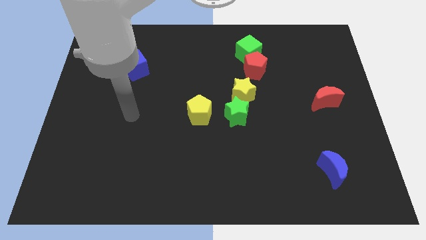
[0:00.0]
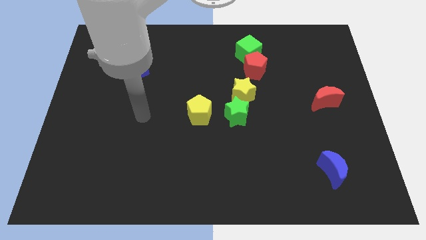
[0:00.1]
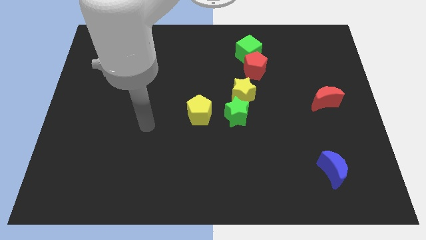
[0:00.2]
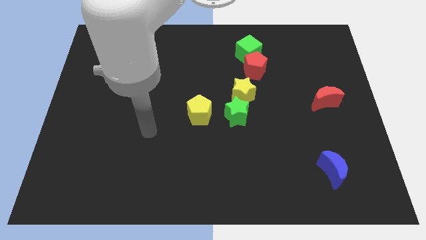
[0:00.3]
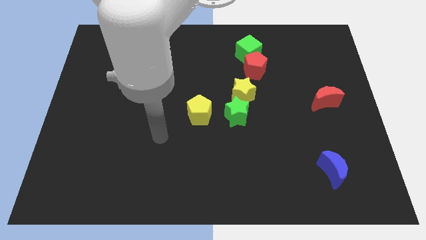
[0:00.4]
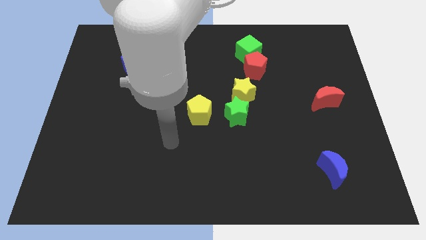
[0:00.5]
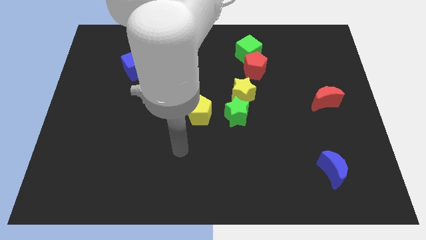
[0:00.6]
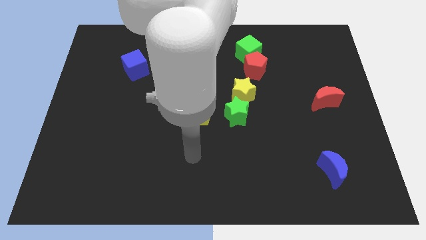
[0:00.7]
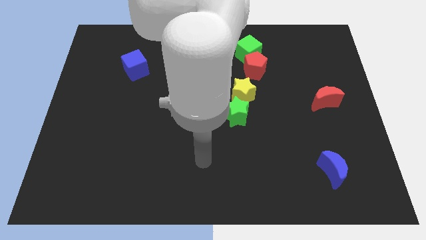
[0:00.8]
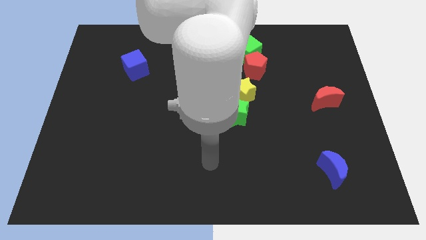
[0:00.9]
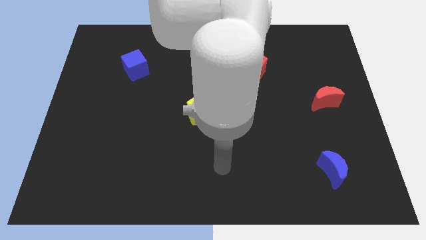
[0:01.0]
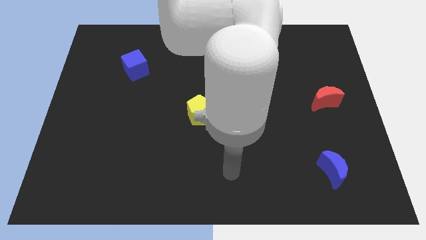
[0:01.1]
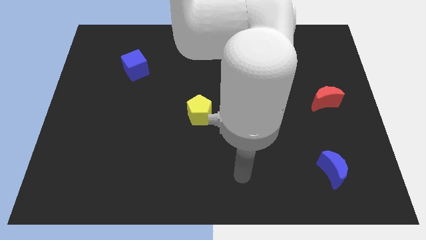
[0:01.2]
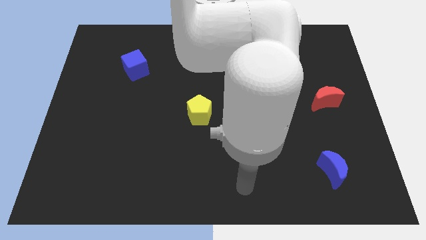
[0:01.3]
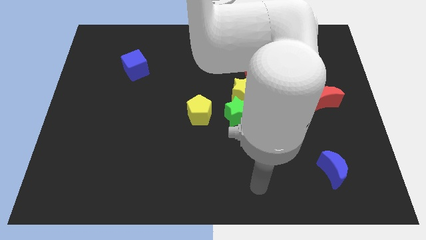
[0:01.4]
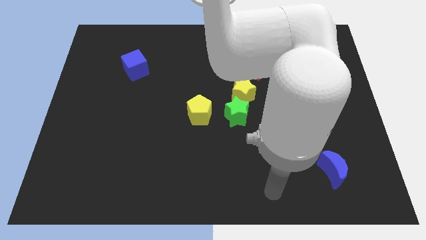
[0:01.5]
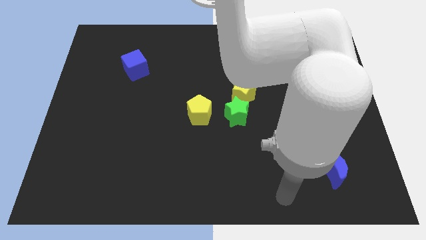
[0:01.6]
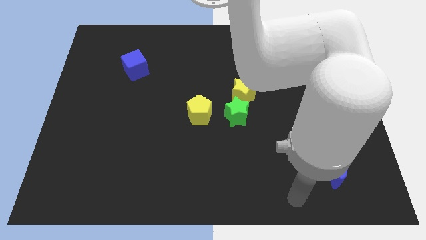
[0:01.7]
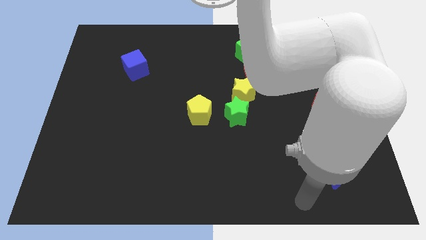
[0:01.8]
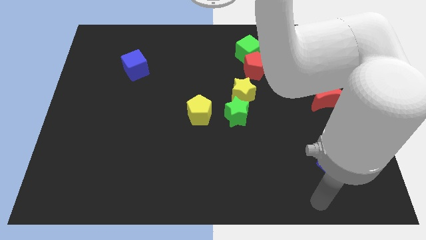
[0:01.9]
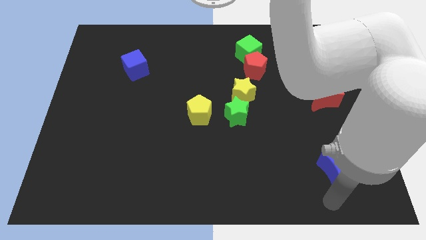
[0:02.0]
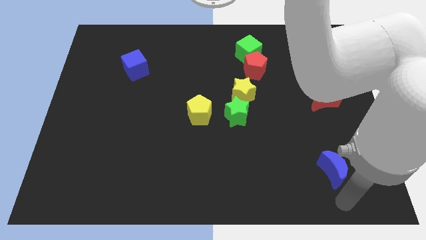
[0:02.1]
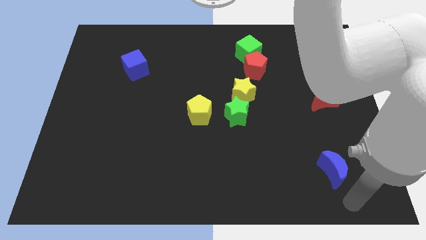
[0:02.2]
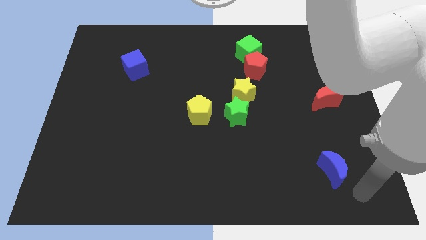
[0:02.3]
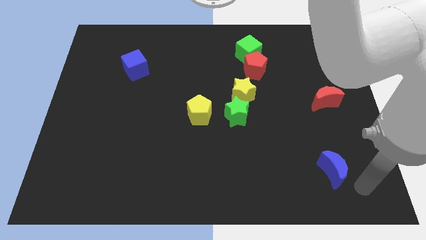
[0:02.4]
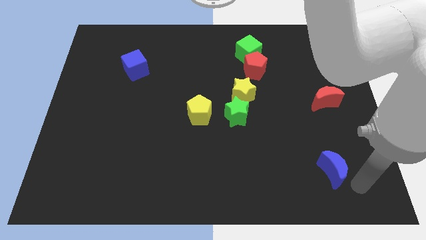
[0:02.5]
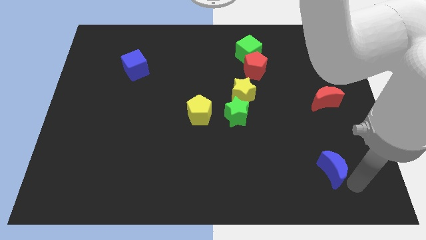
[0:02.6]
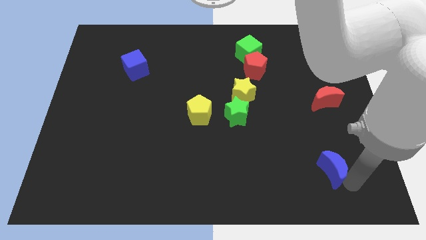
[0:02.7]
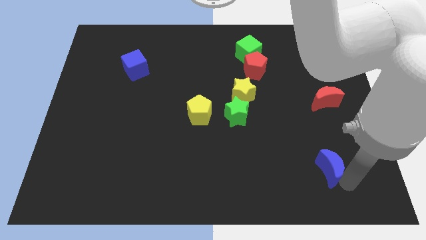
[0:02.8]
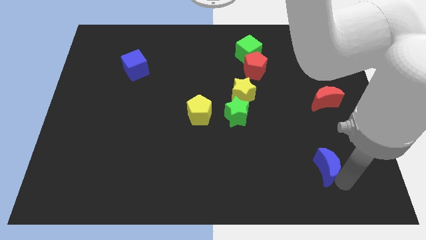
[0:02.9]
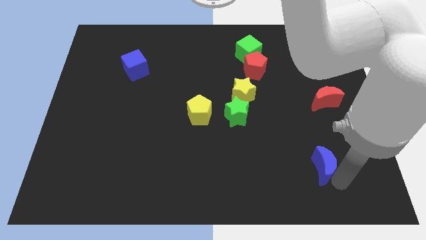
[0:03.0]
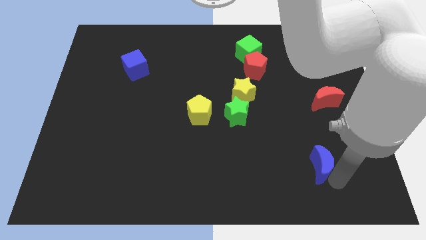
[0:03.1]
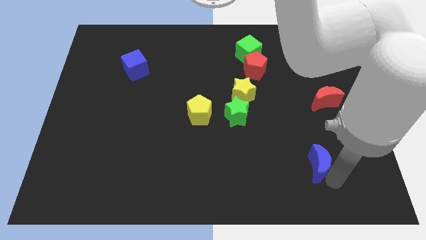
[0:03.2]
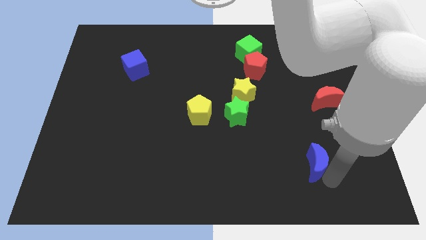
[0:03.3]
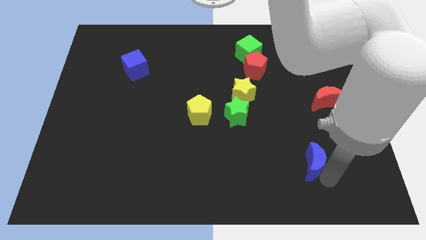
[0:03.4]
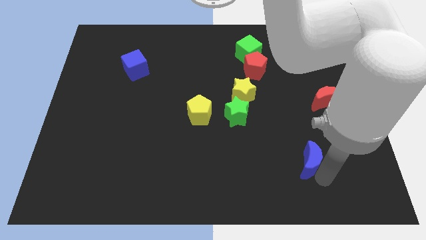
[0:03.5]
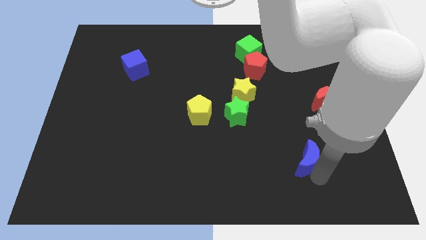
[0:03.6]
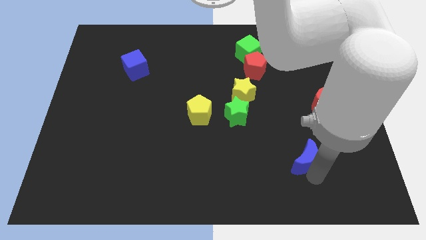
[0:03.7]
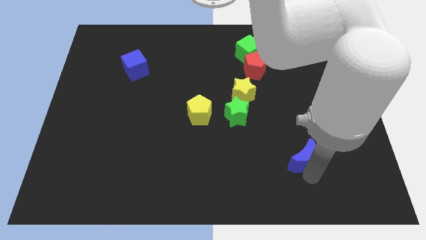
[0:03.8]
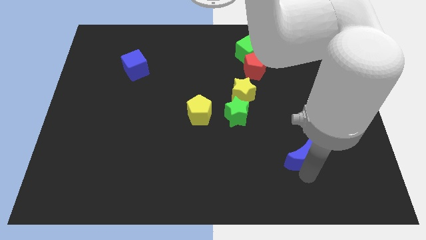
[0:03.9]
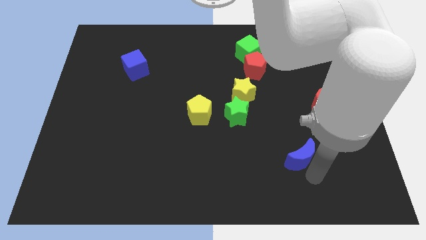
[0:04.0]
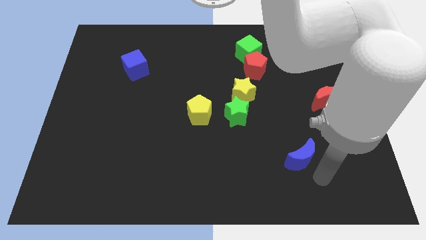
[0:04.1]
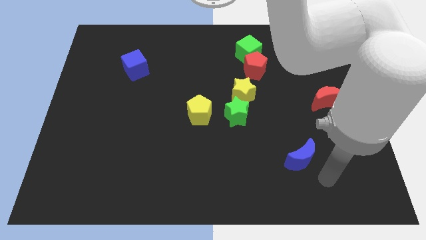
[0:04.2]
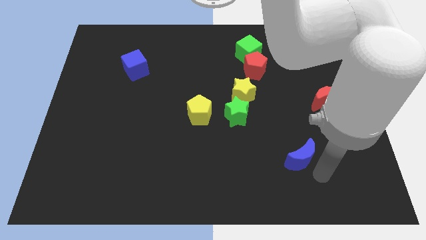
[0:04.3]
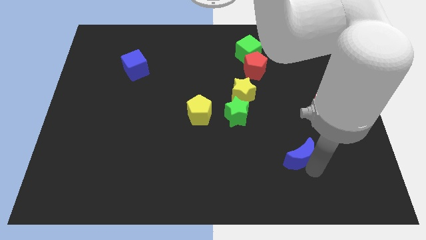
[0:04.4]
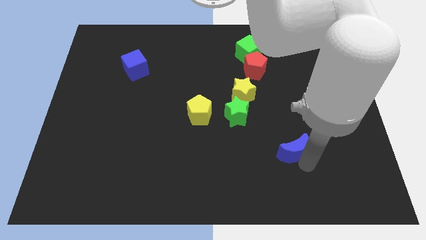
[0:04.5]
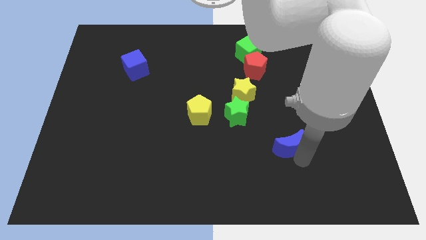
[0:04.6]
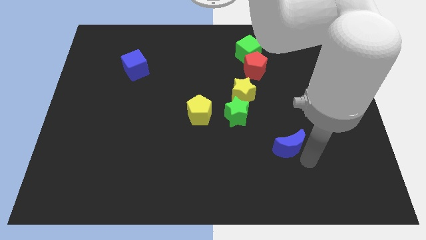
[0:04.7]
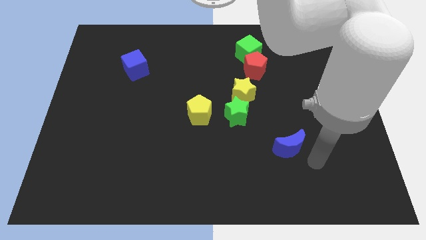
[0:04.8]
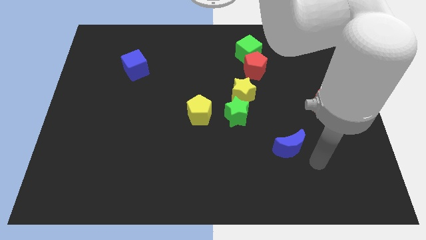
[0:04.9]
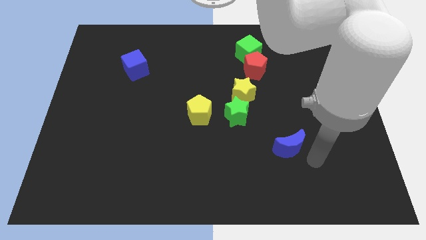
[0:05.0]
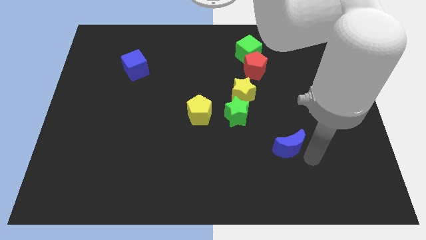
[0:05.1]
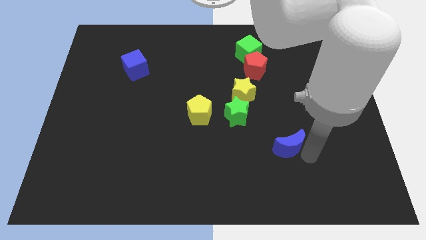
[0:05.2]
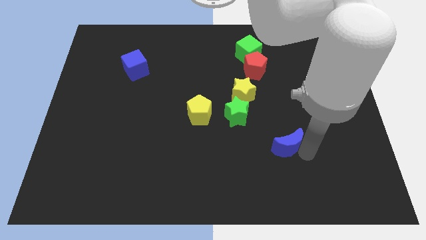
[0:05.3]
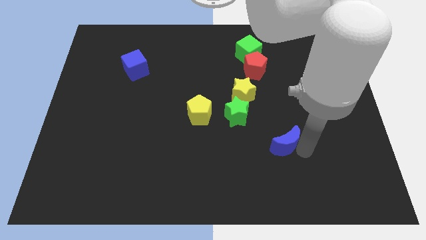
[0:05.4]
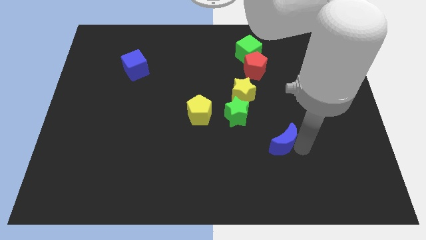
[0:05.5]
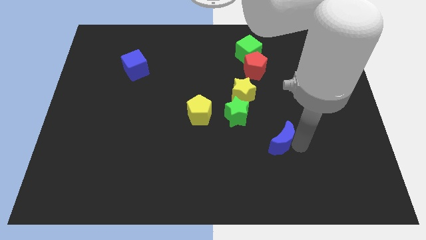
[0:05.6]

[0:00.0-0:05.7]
push the blue moon to the bottom right side of the green star

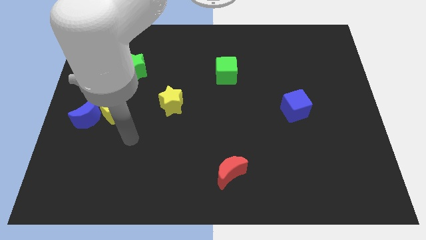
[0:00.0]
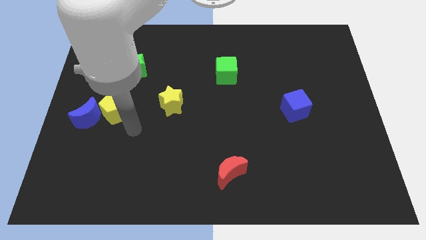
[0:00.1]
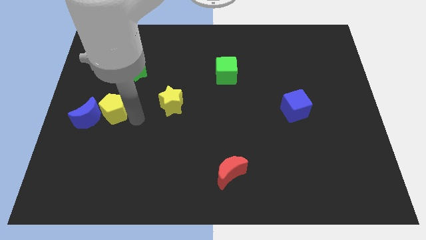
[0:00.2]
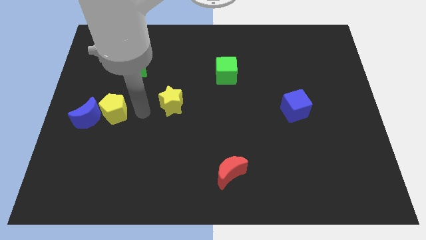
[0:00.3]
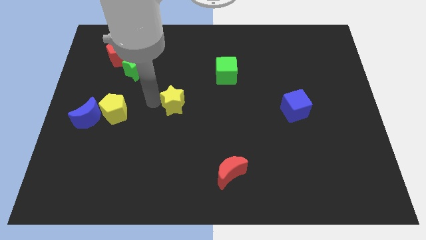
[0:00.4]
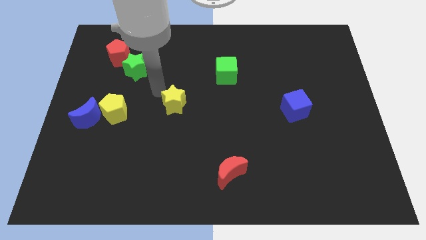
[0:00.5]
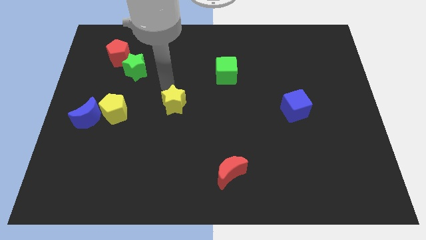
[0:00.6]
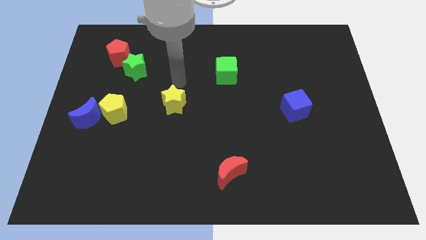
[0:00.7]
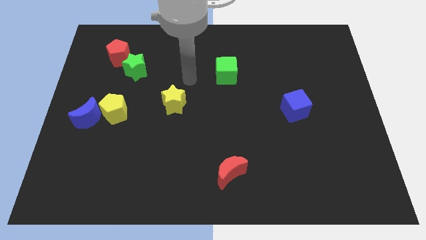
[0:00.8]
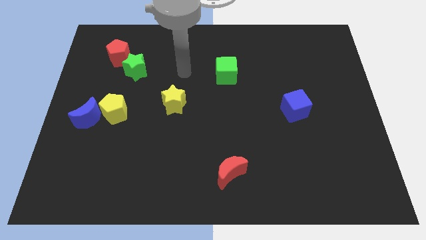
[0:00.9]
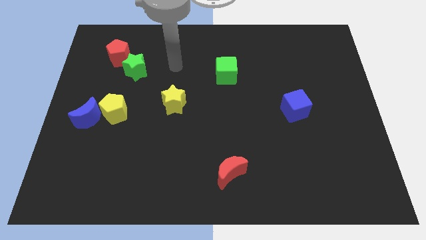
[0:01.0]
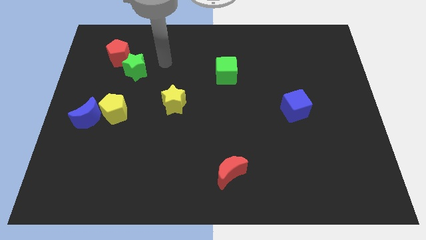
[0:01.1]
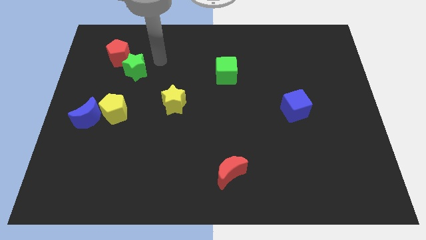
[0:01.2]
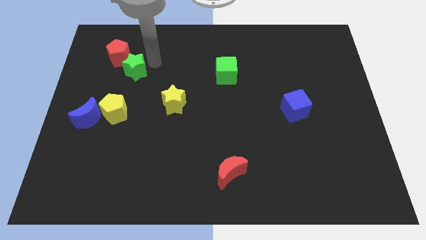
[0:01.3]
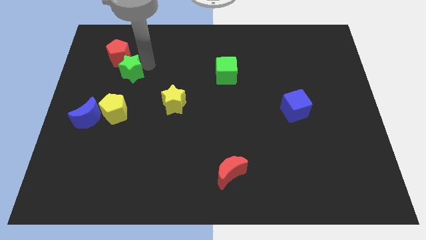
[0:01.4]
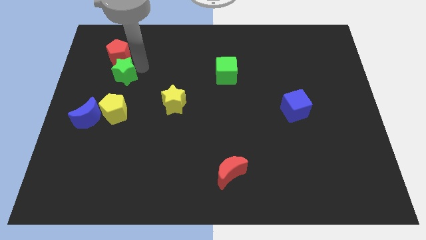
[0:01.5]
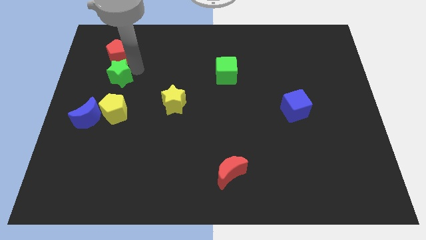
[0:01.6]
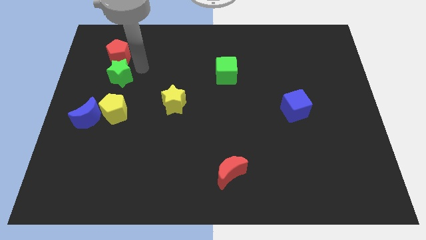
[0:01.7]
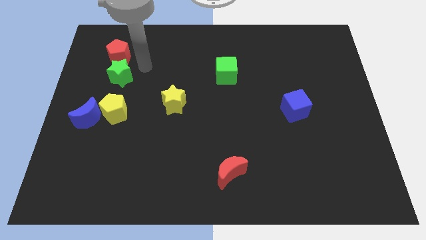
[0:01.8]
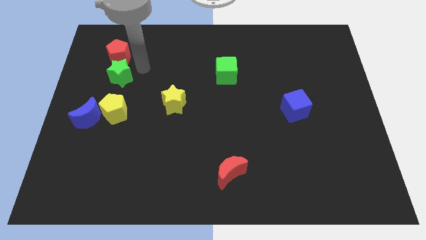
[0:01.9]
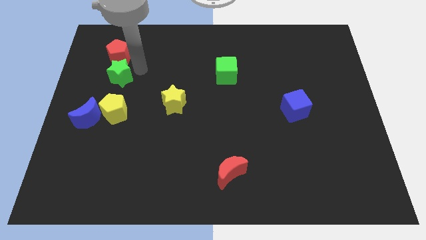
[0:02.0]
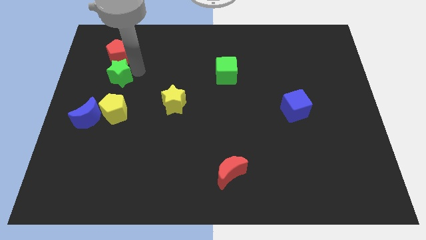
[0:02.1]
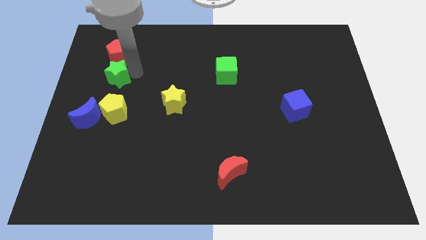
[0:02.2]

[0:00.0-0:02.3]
move the green star to the top side of the blue moon
